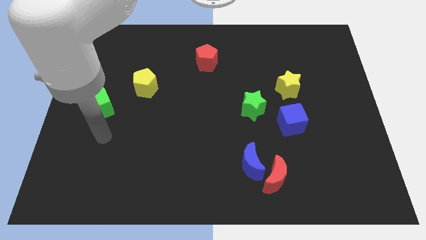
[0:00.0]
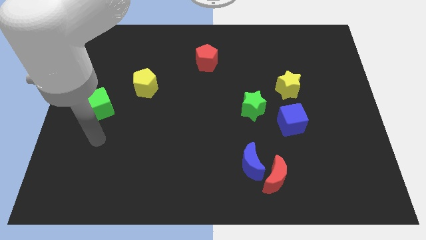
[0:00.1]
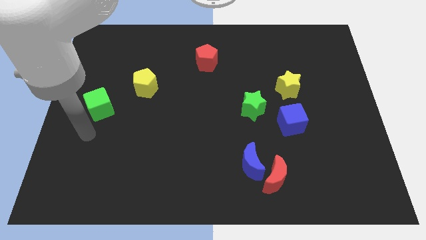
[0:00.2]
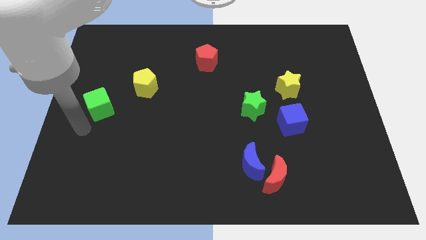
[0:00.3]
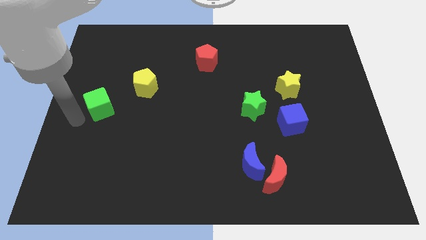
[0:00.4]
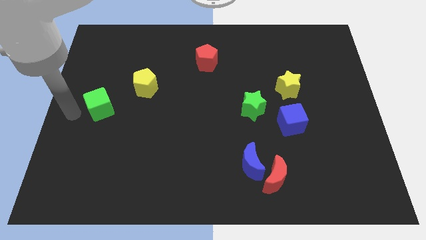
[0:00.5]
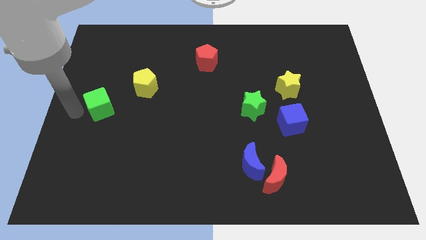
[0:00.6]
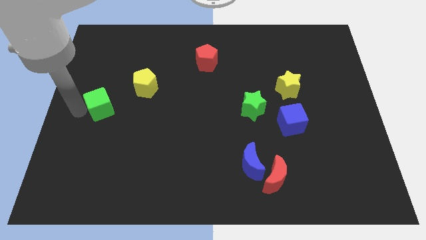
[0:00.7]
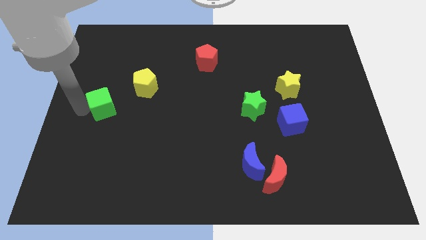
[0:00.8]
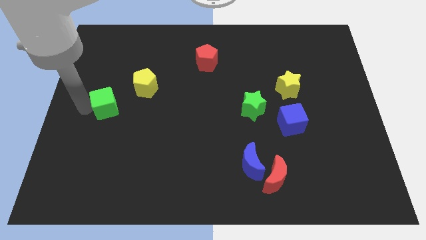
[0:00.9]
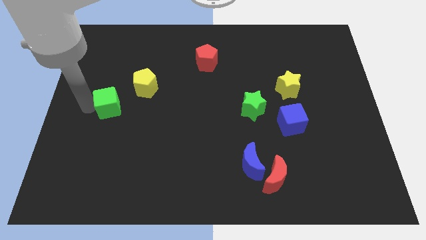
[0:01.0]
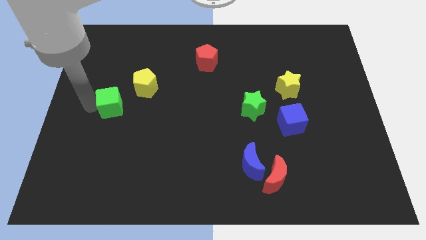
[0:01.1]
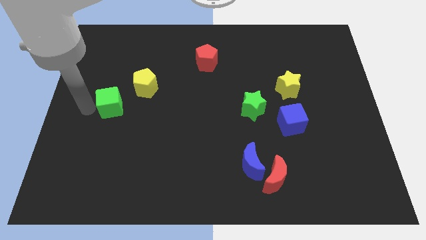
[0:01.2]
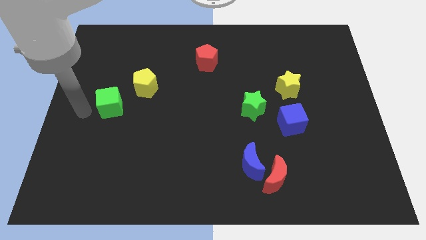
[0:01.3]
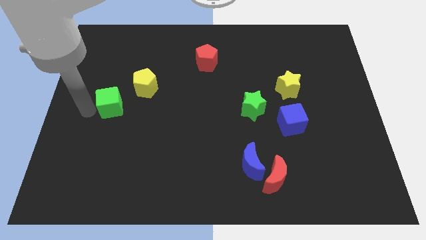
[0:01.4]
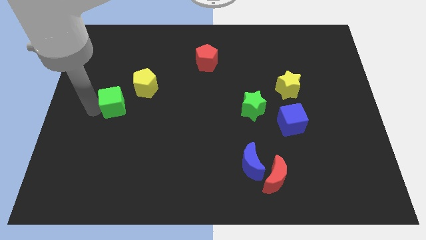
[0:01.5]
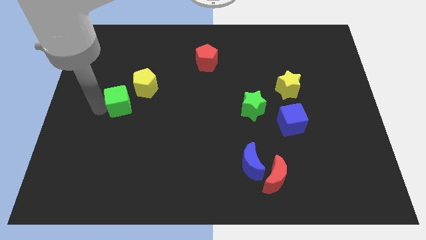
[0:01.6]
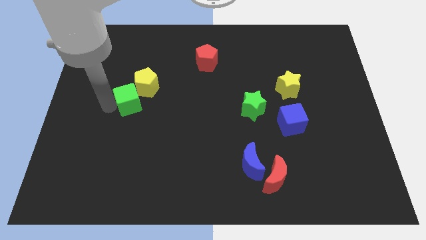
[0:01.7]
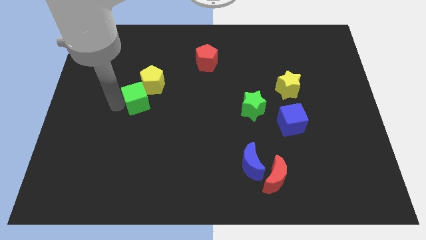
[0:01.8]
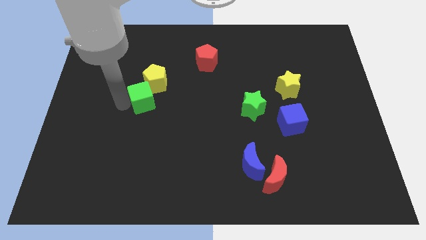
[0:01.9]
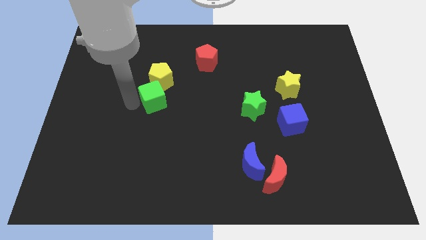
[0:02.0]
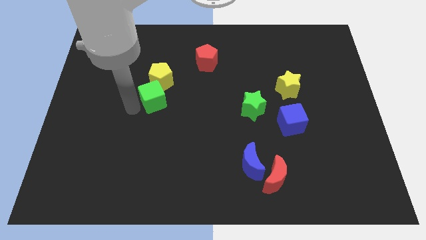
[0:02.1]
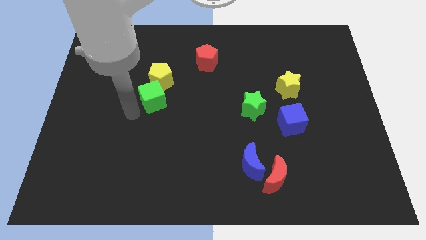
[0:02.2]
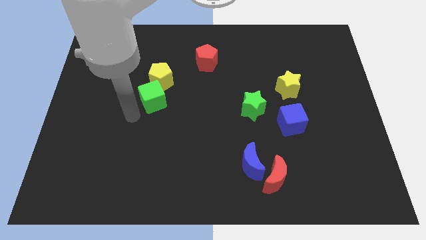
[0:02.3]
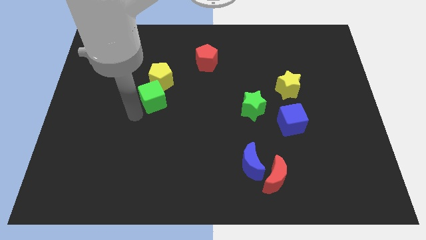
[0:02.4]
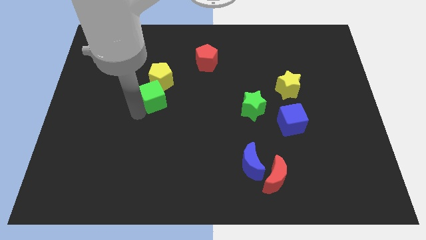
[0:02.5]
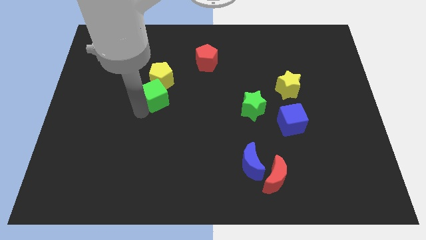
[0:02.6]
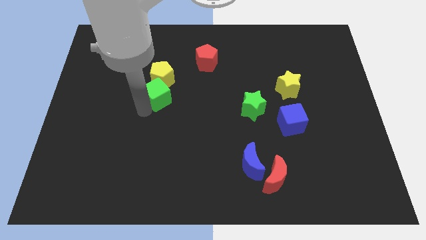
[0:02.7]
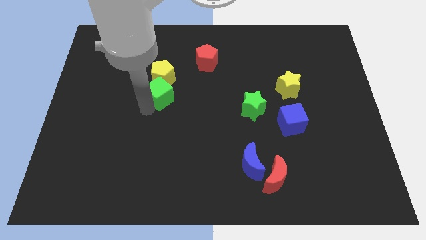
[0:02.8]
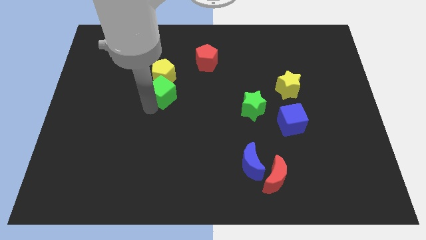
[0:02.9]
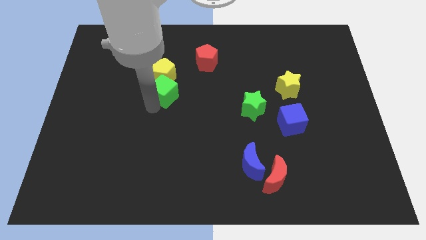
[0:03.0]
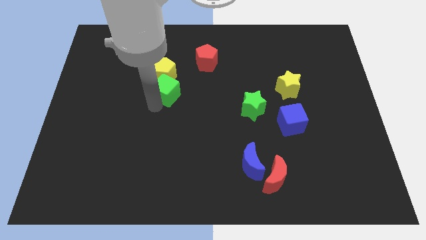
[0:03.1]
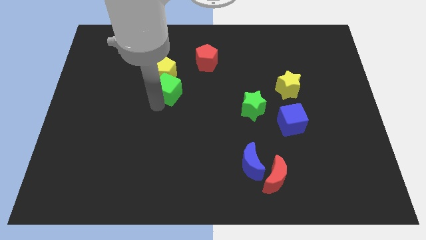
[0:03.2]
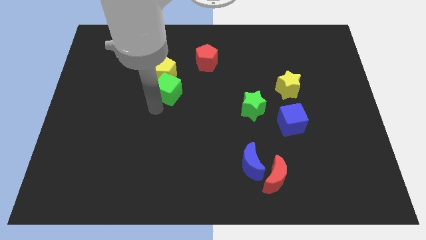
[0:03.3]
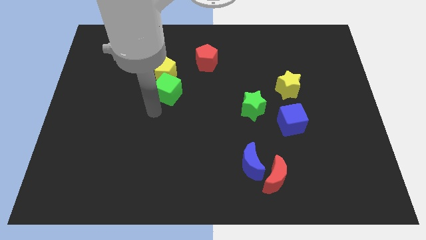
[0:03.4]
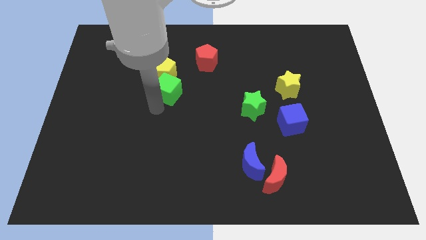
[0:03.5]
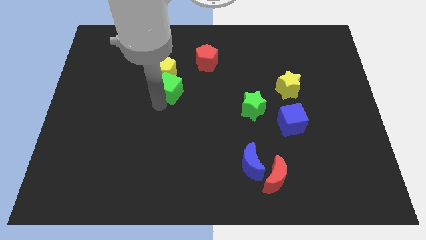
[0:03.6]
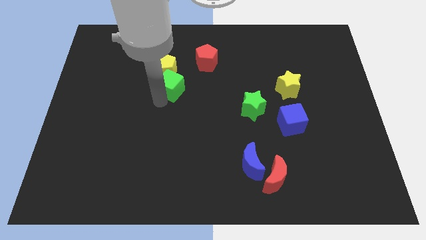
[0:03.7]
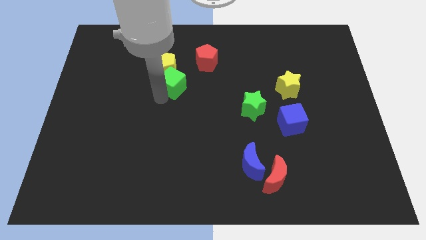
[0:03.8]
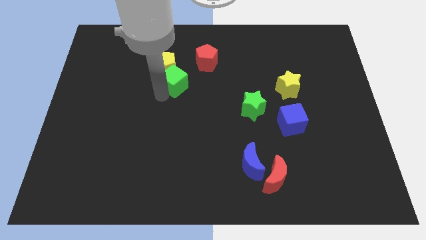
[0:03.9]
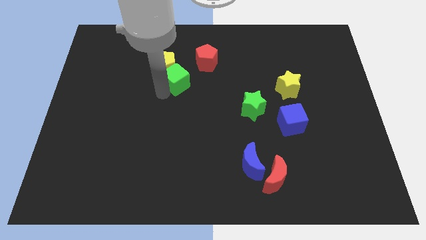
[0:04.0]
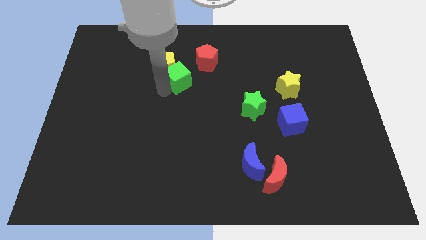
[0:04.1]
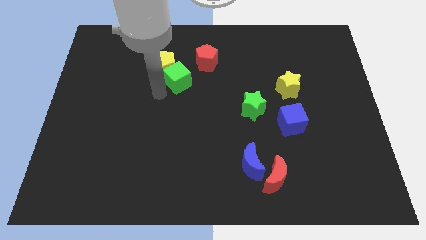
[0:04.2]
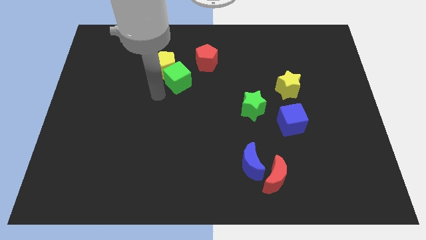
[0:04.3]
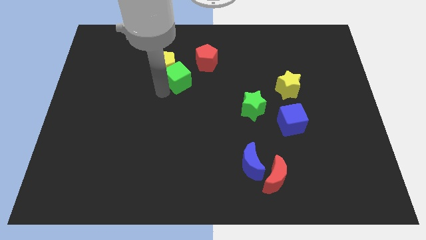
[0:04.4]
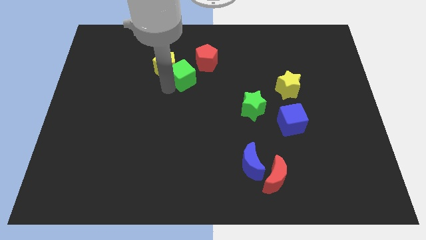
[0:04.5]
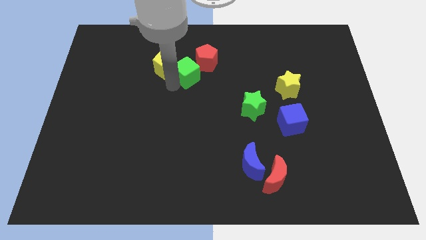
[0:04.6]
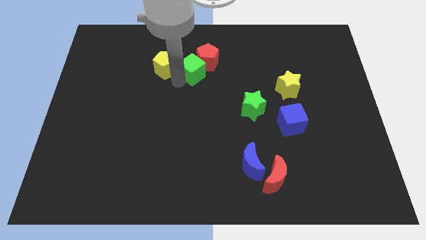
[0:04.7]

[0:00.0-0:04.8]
slide the green cube to the red pentagon

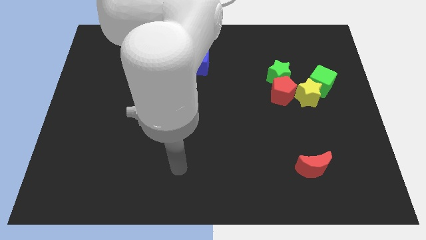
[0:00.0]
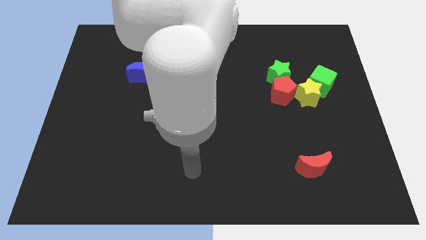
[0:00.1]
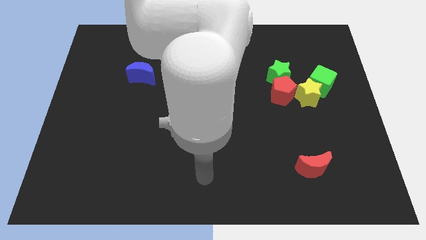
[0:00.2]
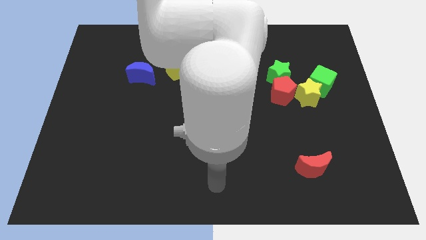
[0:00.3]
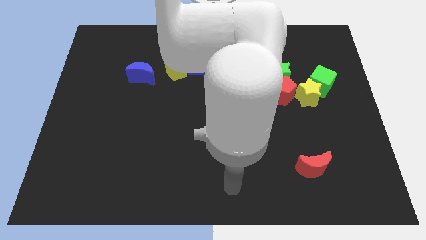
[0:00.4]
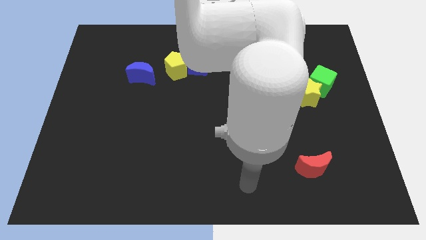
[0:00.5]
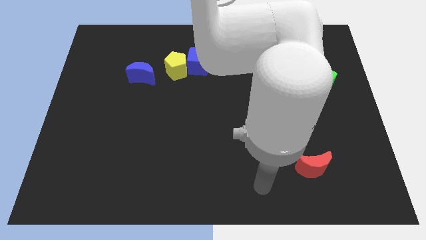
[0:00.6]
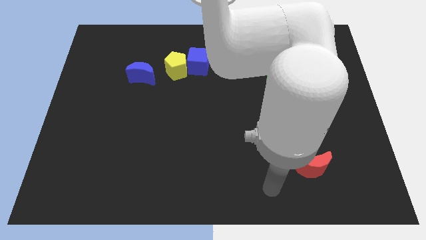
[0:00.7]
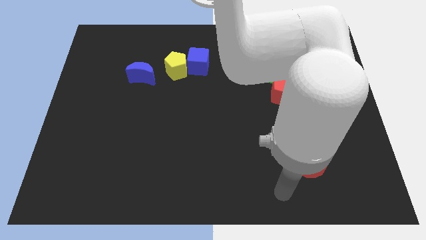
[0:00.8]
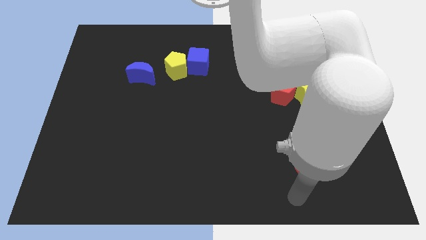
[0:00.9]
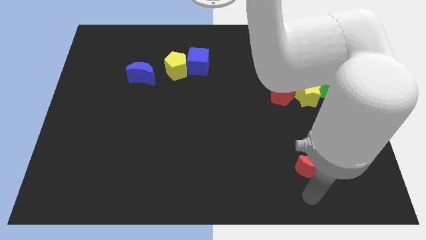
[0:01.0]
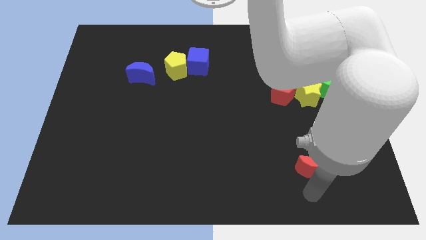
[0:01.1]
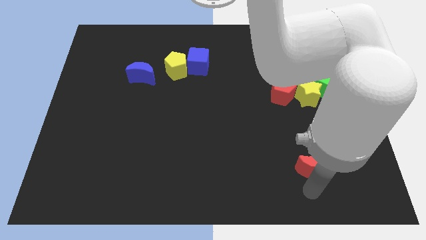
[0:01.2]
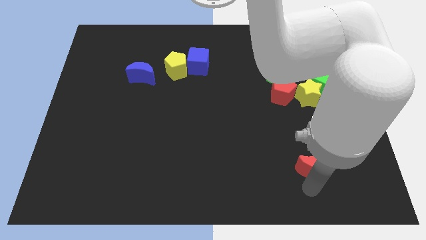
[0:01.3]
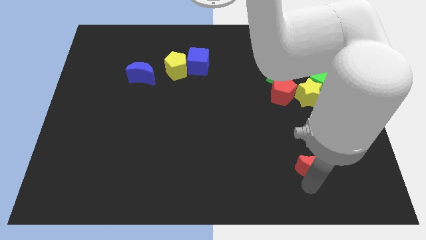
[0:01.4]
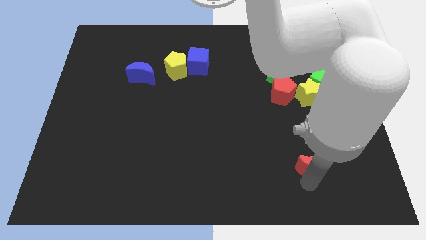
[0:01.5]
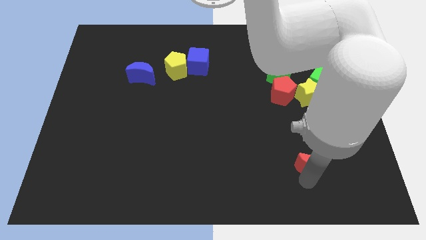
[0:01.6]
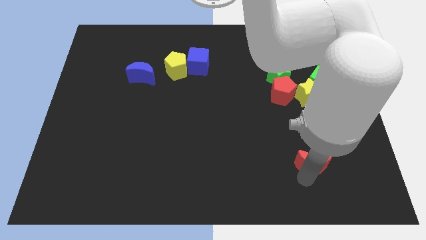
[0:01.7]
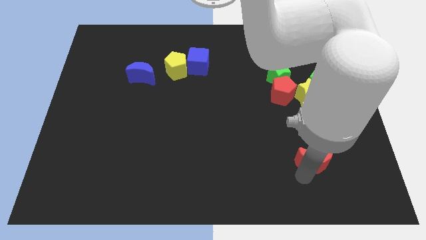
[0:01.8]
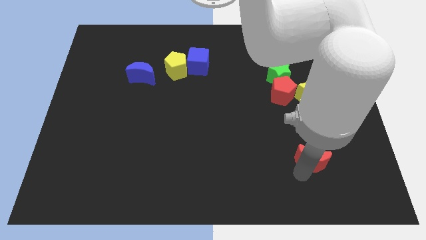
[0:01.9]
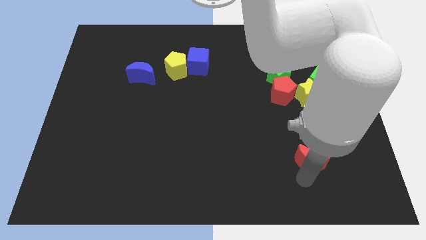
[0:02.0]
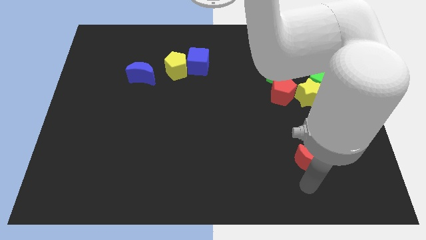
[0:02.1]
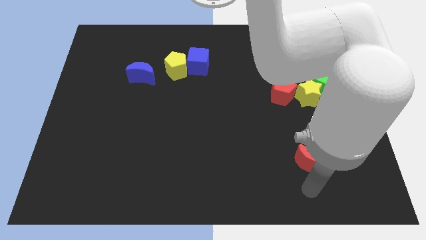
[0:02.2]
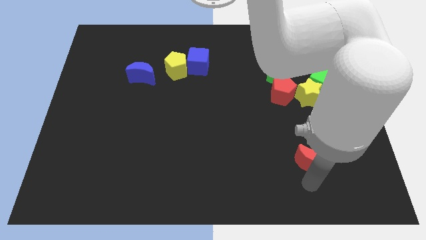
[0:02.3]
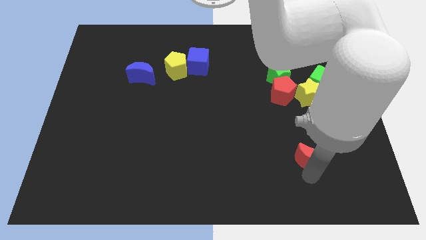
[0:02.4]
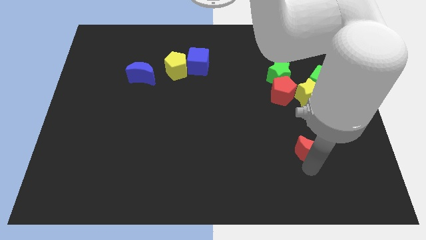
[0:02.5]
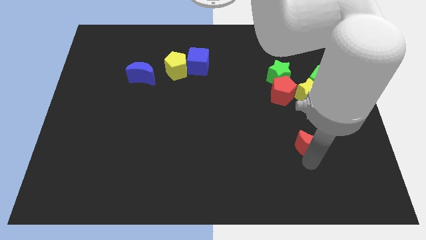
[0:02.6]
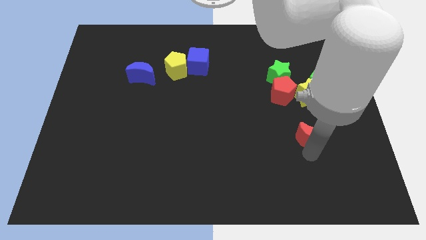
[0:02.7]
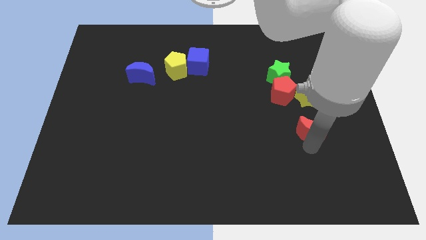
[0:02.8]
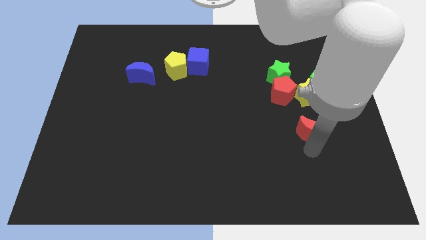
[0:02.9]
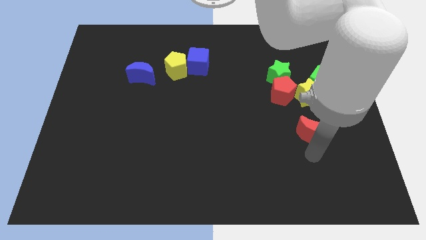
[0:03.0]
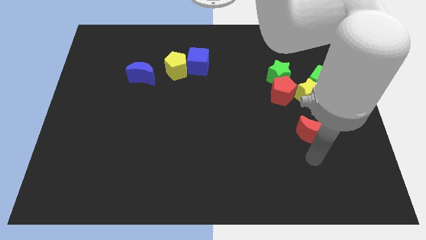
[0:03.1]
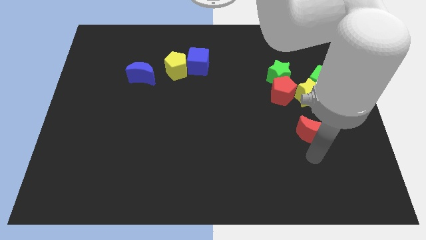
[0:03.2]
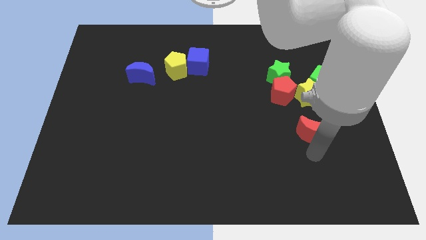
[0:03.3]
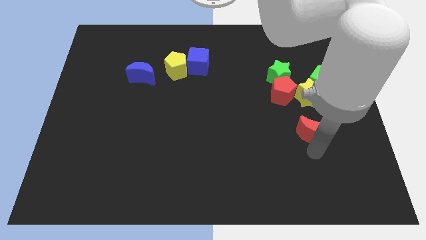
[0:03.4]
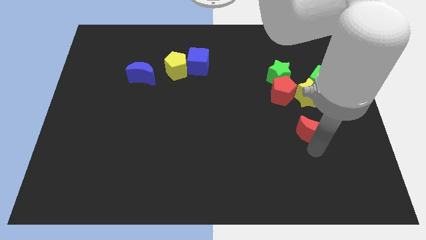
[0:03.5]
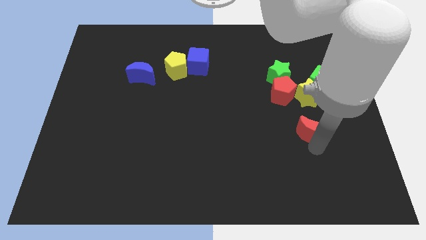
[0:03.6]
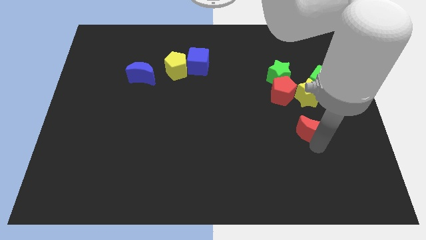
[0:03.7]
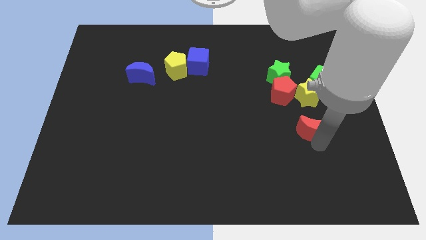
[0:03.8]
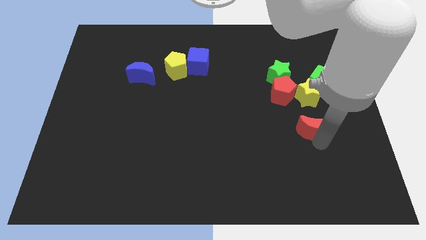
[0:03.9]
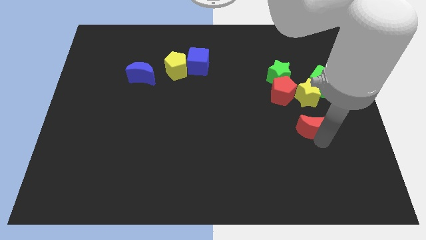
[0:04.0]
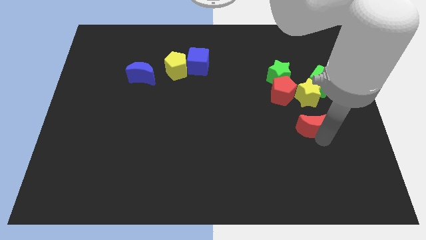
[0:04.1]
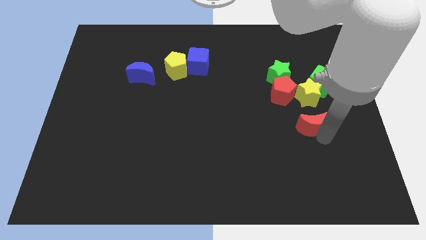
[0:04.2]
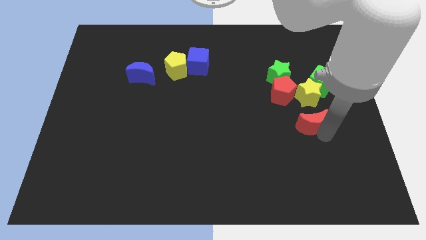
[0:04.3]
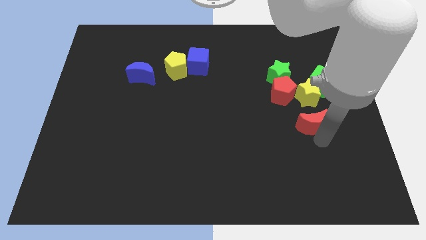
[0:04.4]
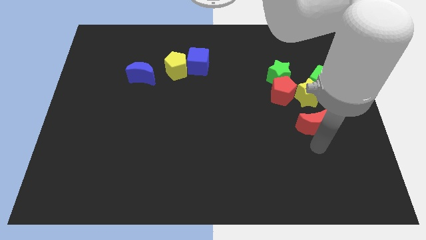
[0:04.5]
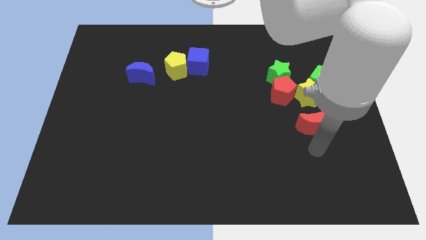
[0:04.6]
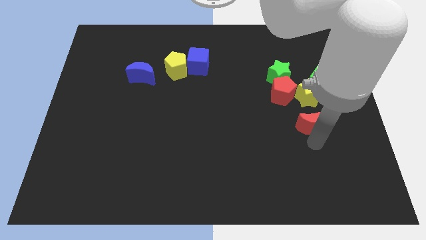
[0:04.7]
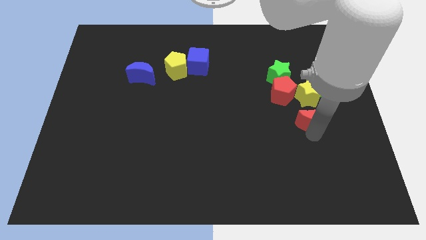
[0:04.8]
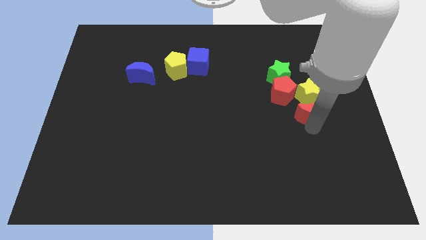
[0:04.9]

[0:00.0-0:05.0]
push the red moon towards the yellow star
